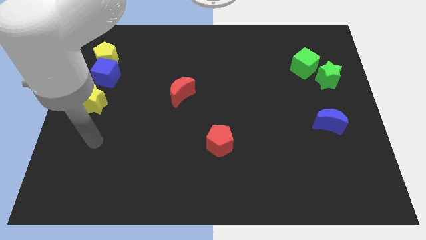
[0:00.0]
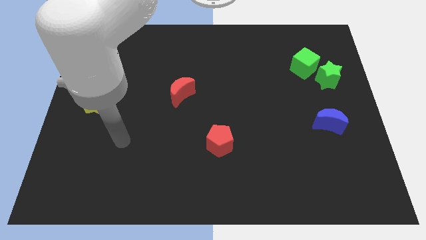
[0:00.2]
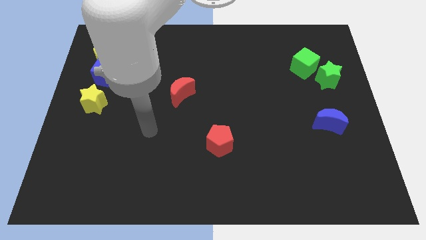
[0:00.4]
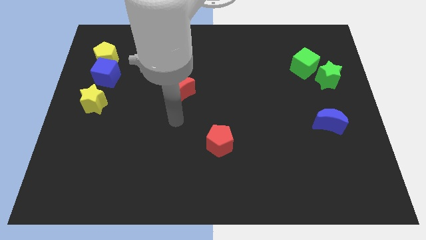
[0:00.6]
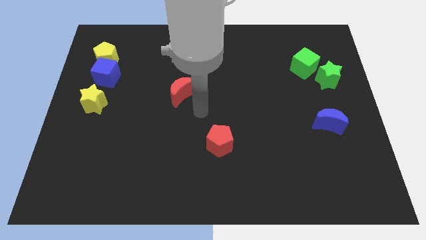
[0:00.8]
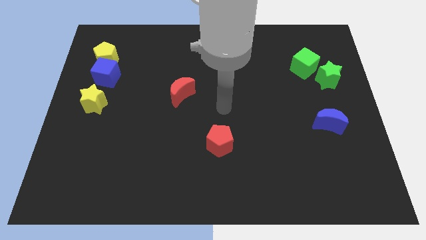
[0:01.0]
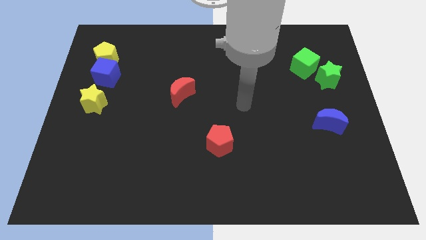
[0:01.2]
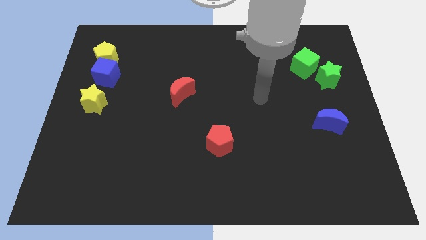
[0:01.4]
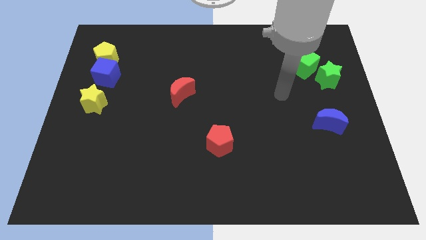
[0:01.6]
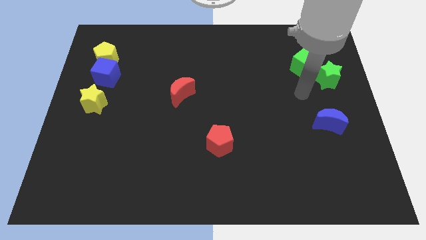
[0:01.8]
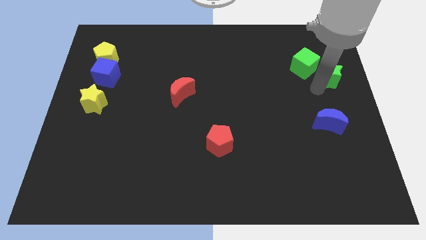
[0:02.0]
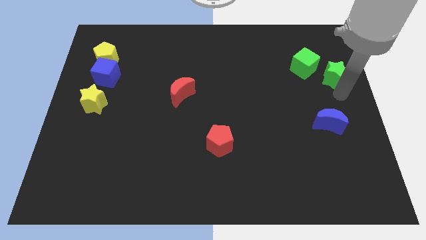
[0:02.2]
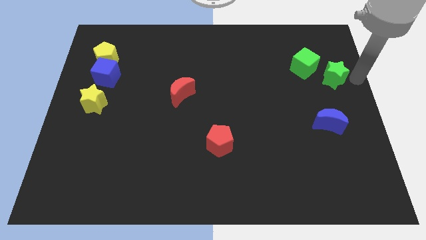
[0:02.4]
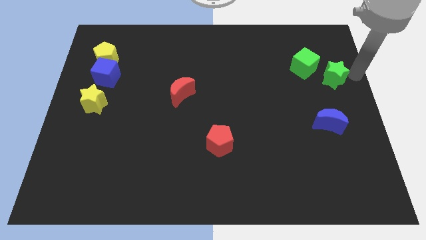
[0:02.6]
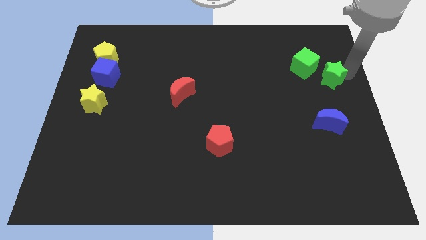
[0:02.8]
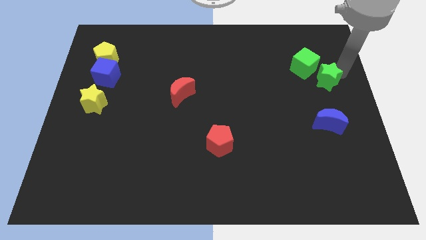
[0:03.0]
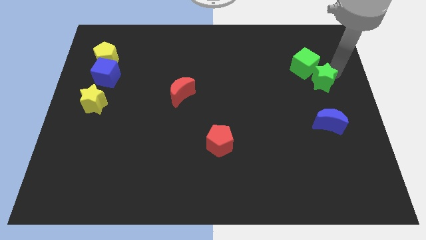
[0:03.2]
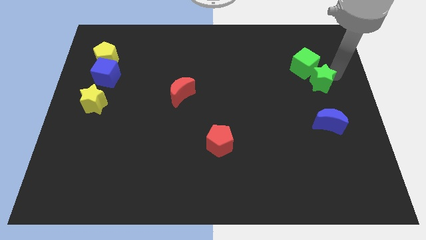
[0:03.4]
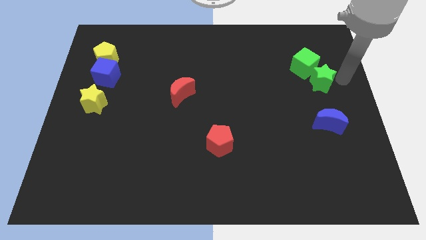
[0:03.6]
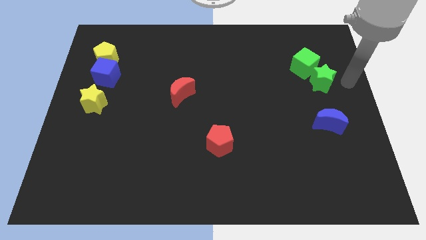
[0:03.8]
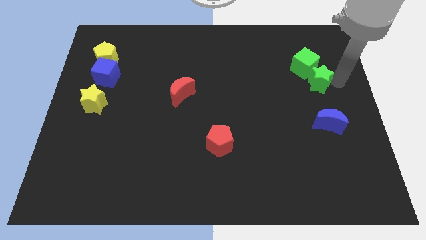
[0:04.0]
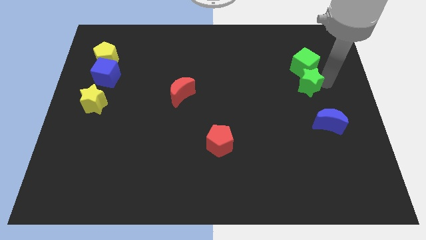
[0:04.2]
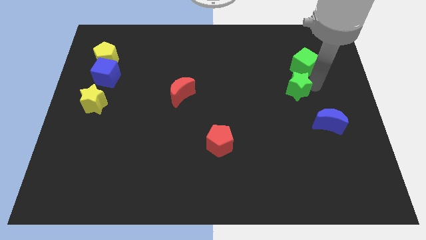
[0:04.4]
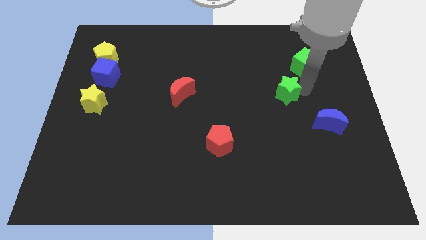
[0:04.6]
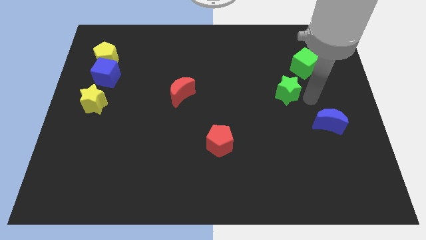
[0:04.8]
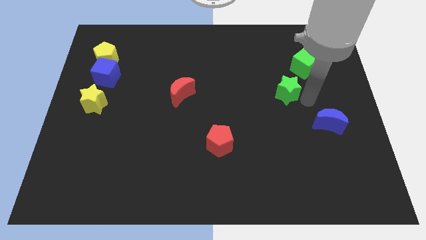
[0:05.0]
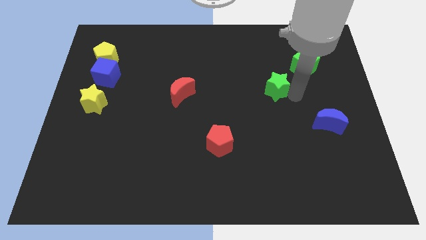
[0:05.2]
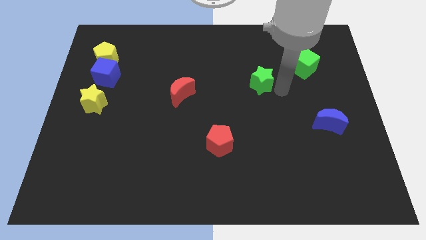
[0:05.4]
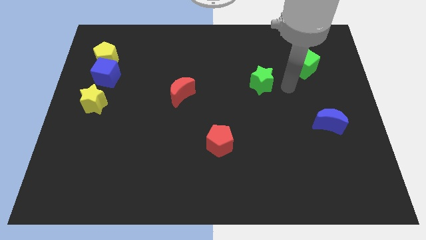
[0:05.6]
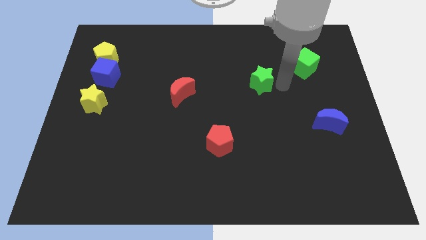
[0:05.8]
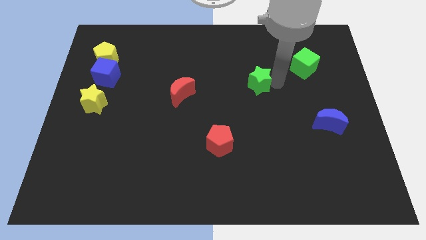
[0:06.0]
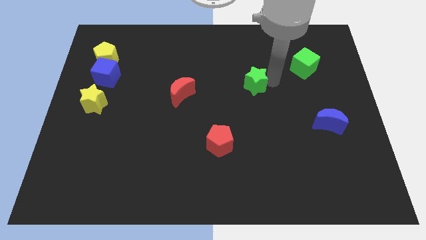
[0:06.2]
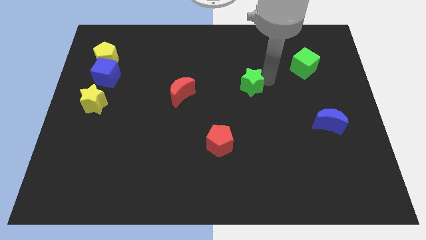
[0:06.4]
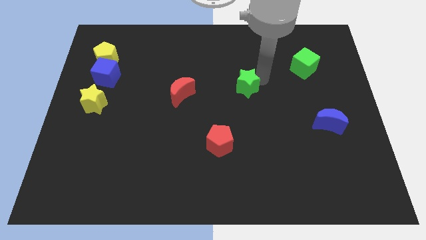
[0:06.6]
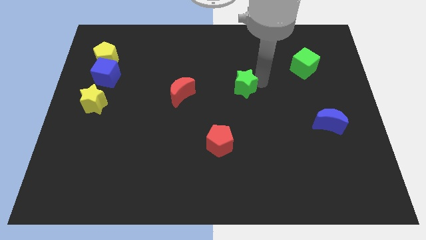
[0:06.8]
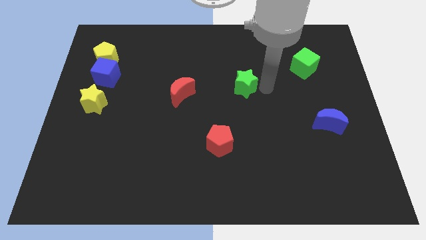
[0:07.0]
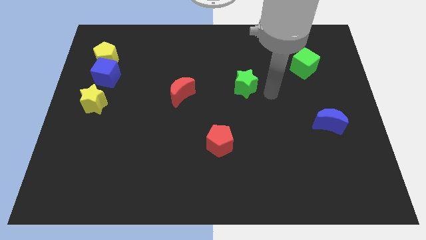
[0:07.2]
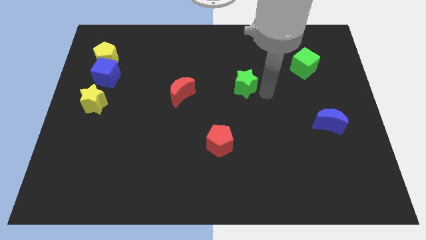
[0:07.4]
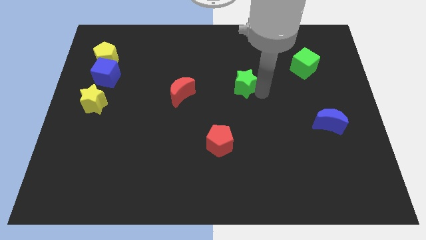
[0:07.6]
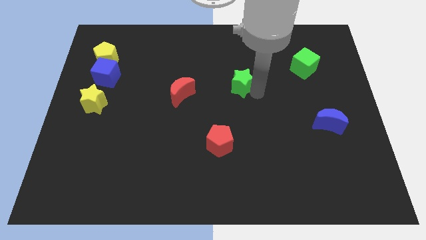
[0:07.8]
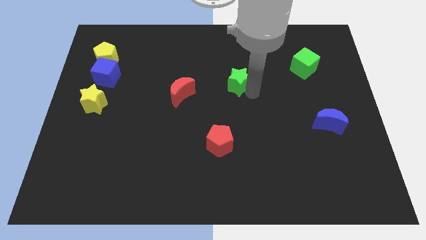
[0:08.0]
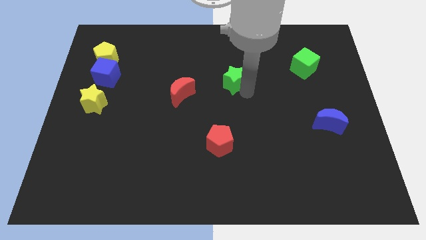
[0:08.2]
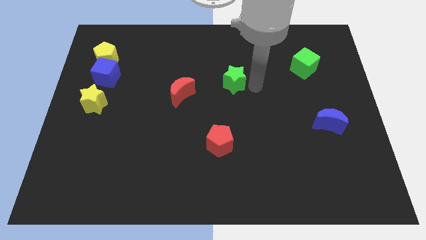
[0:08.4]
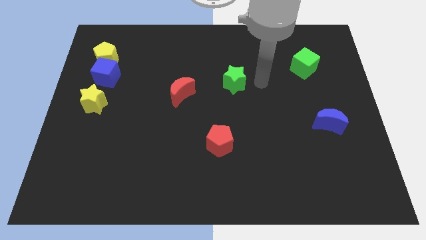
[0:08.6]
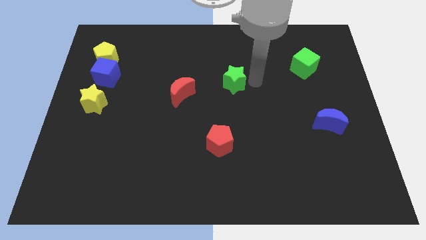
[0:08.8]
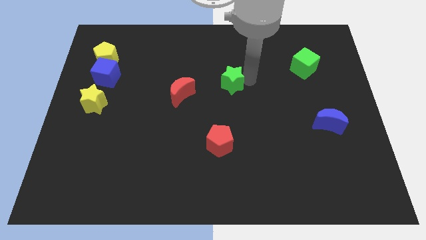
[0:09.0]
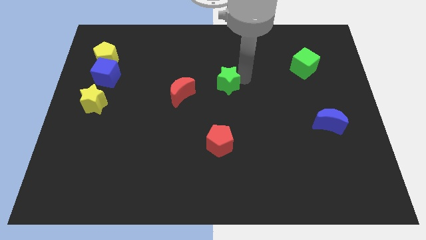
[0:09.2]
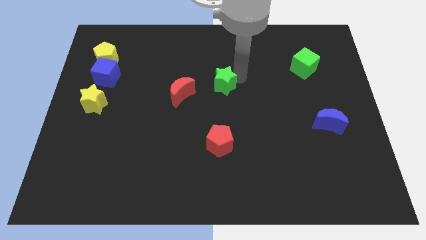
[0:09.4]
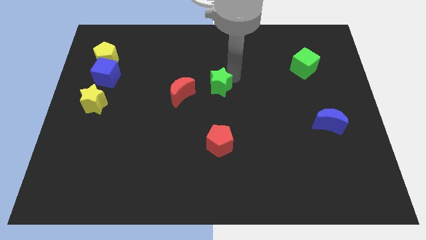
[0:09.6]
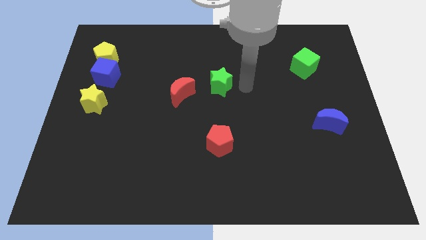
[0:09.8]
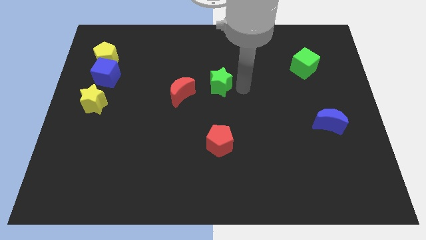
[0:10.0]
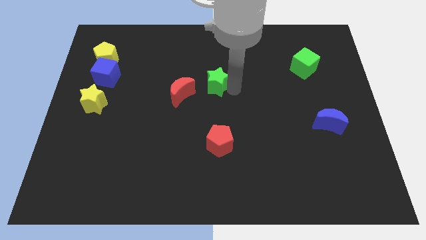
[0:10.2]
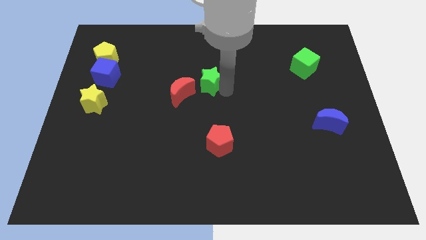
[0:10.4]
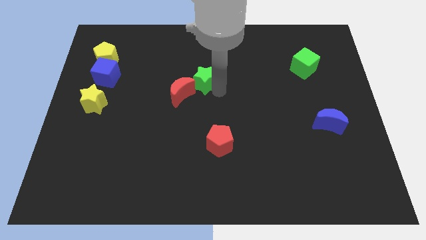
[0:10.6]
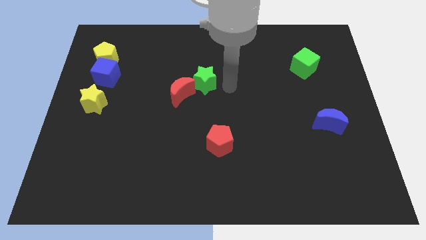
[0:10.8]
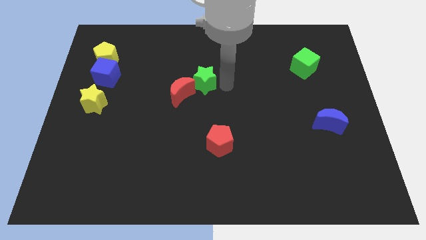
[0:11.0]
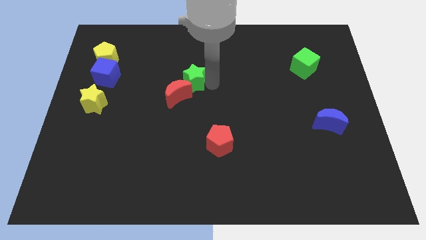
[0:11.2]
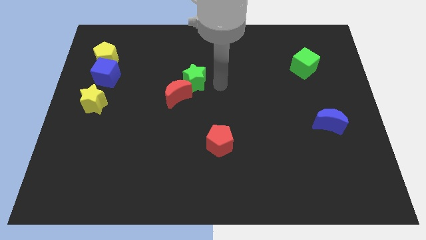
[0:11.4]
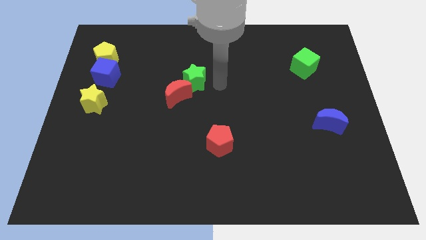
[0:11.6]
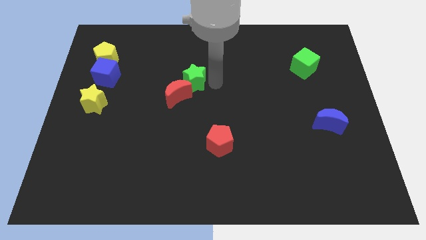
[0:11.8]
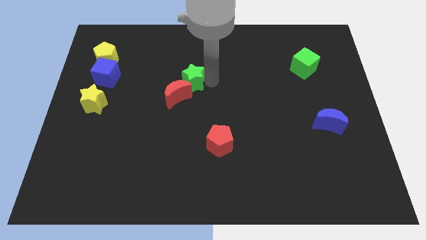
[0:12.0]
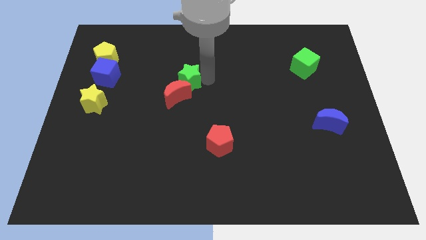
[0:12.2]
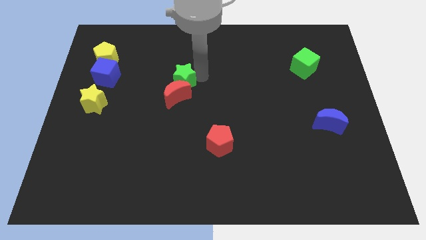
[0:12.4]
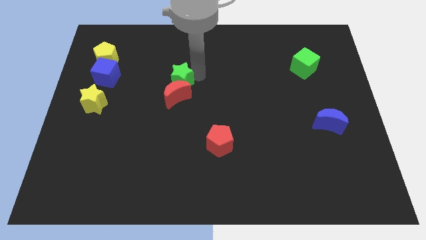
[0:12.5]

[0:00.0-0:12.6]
push the green star to the top left of the red moon

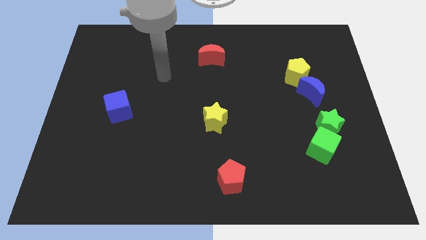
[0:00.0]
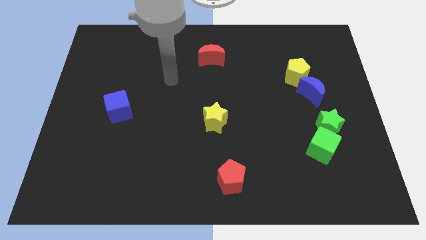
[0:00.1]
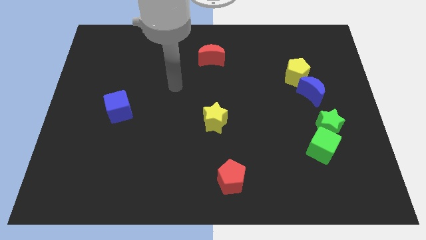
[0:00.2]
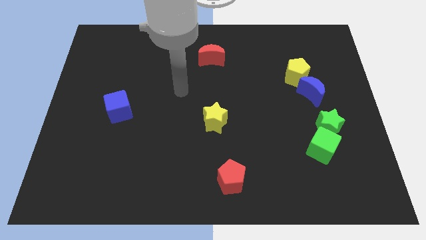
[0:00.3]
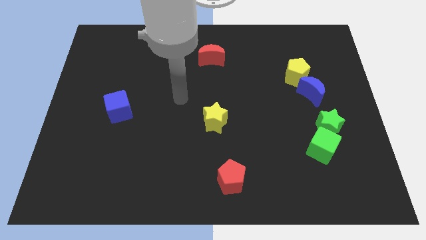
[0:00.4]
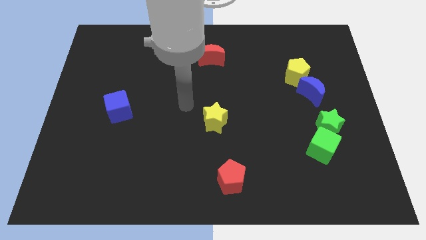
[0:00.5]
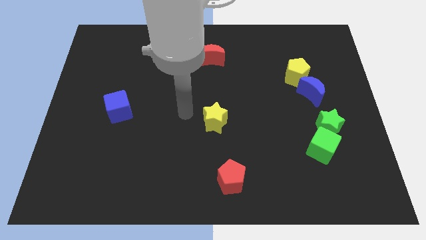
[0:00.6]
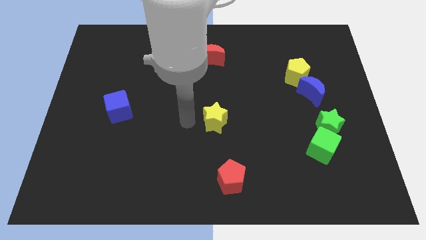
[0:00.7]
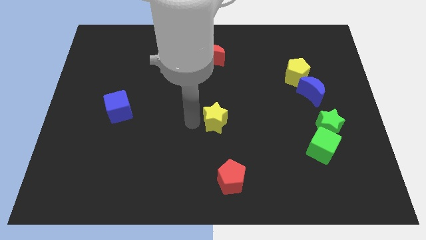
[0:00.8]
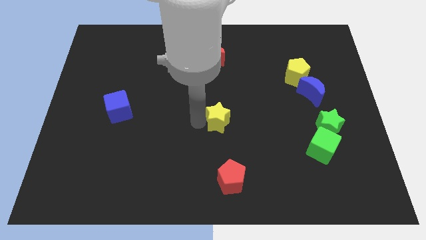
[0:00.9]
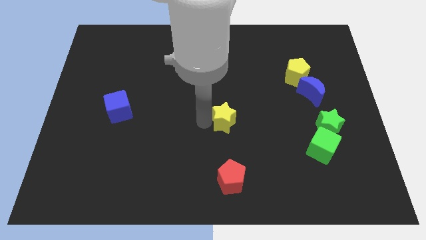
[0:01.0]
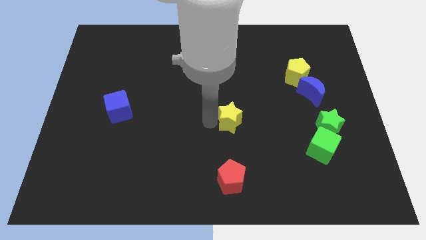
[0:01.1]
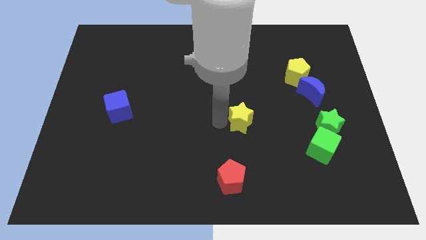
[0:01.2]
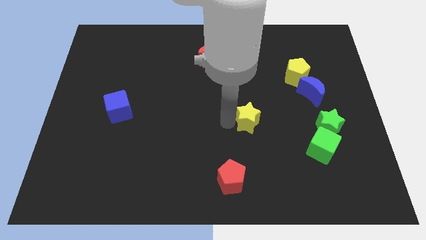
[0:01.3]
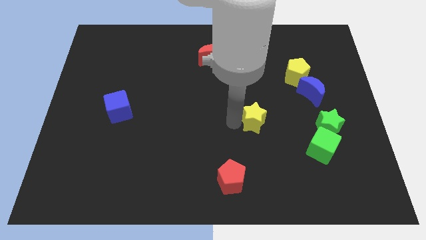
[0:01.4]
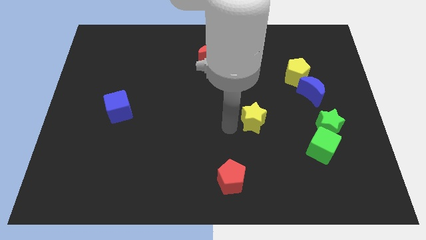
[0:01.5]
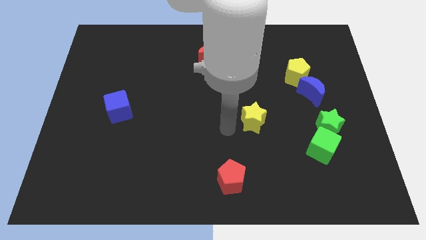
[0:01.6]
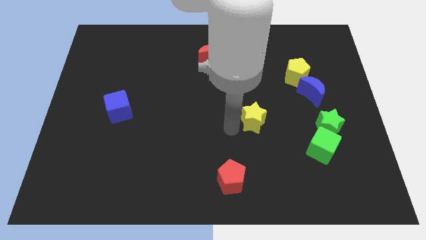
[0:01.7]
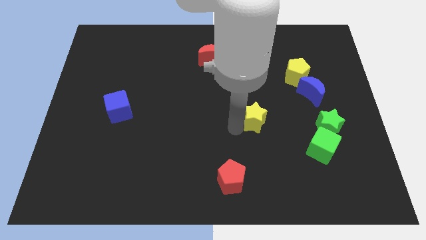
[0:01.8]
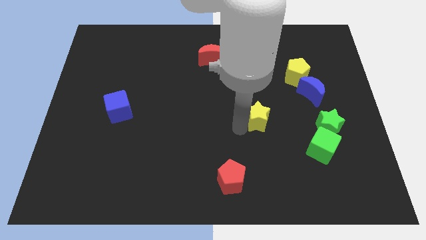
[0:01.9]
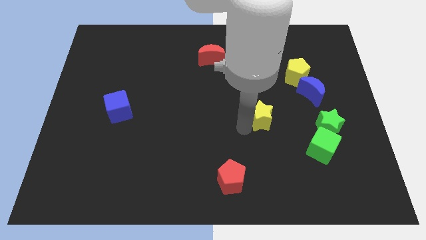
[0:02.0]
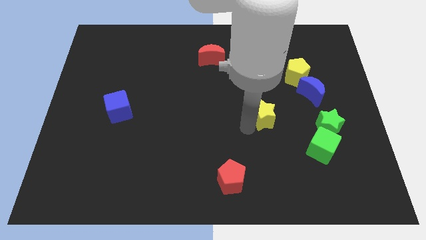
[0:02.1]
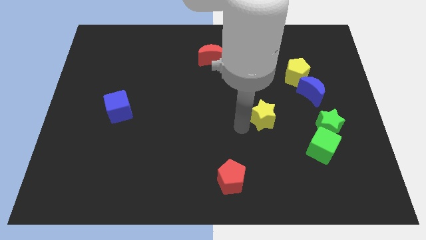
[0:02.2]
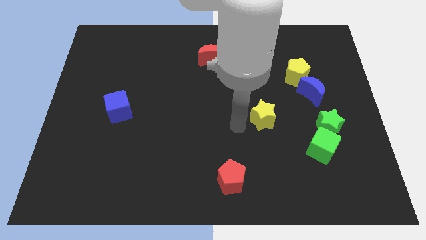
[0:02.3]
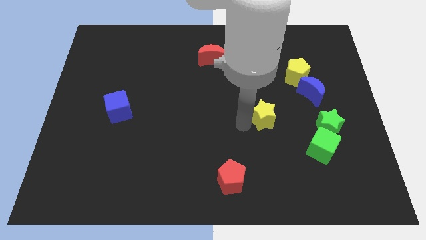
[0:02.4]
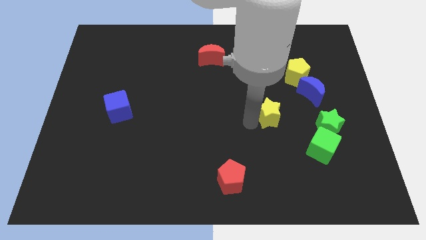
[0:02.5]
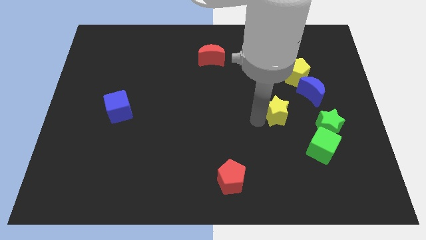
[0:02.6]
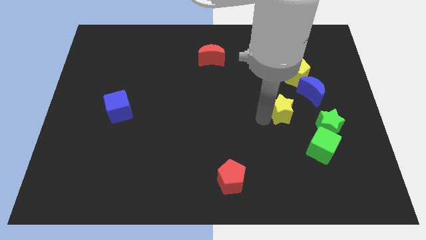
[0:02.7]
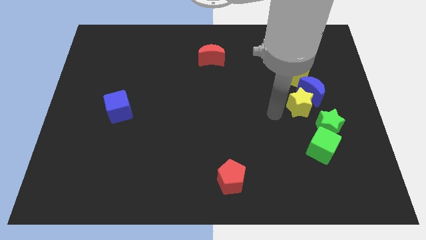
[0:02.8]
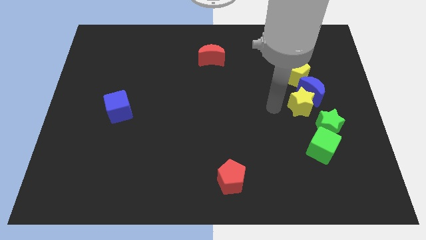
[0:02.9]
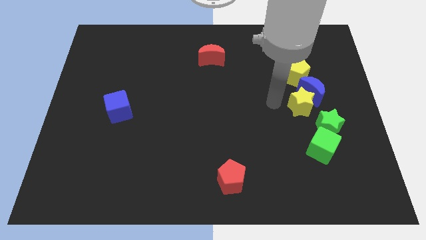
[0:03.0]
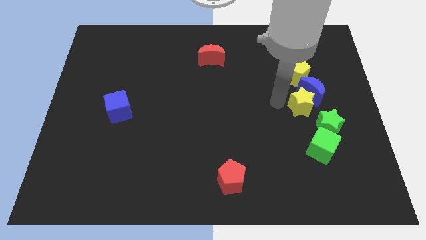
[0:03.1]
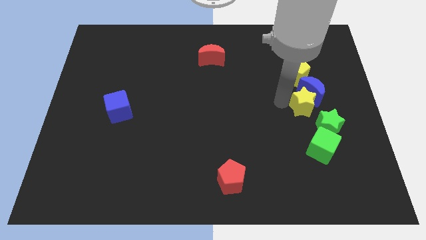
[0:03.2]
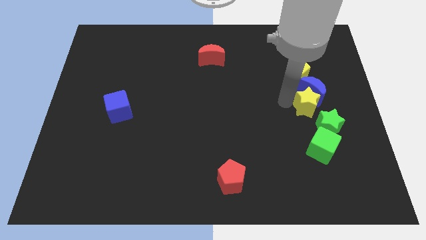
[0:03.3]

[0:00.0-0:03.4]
push the yellow star to the bottom right side of the blue moon
